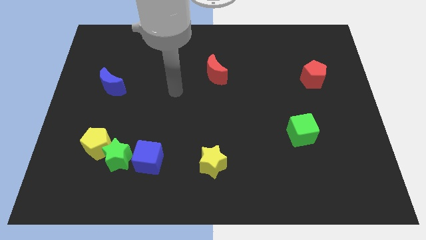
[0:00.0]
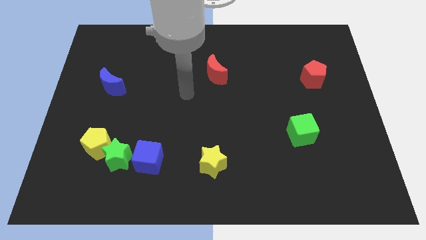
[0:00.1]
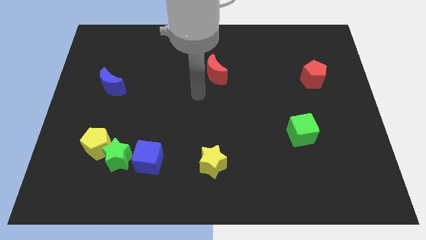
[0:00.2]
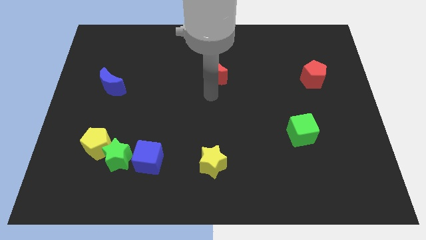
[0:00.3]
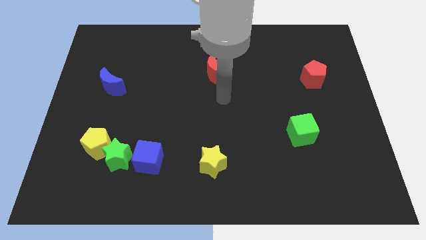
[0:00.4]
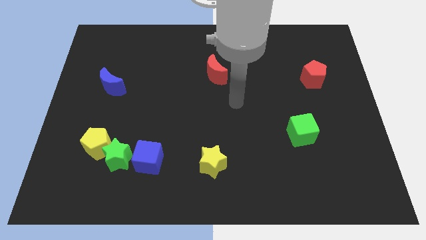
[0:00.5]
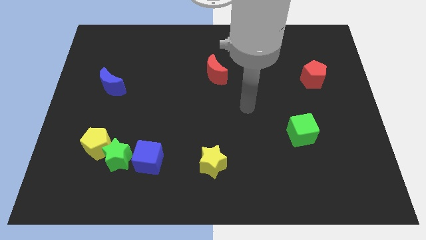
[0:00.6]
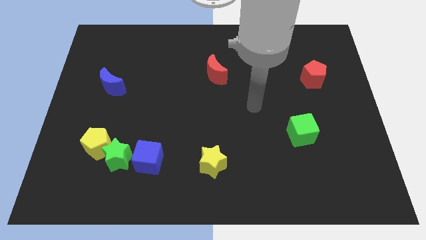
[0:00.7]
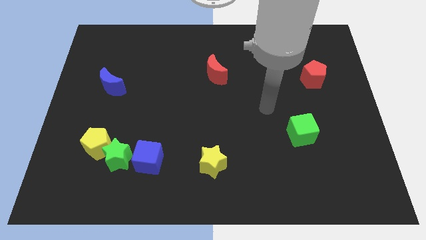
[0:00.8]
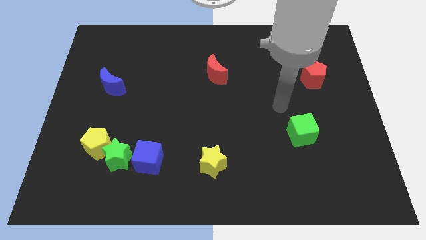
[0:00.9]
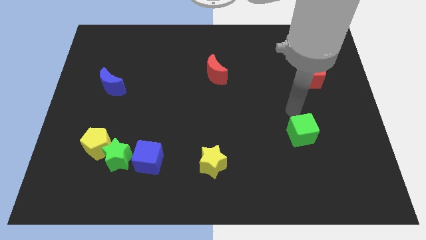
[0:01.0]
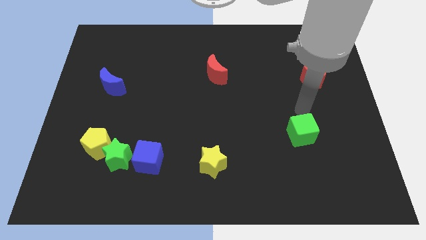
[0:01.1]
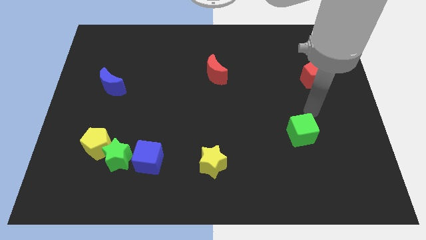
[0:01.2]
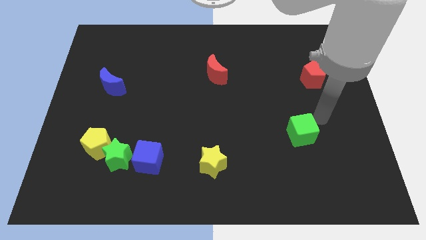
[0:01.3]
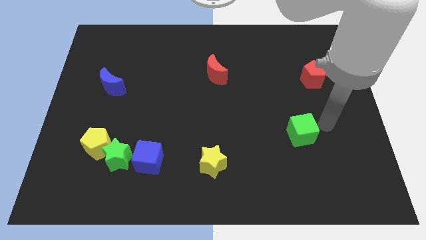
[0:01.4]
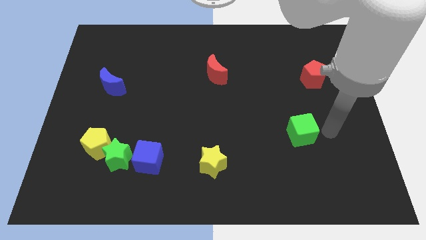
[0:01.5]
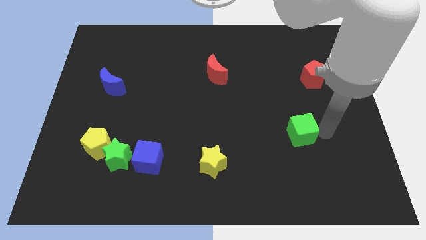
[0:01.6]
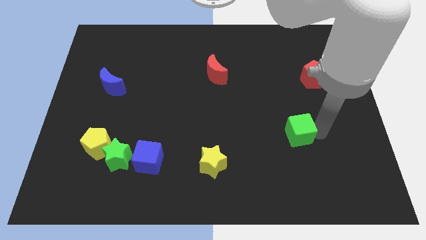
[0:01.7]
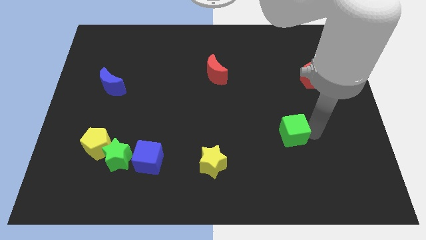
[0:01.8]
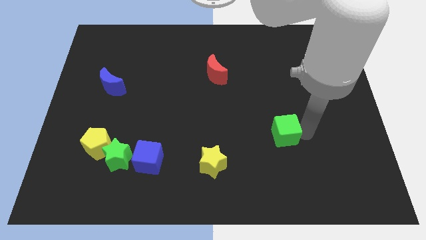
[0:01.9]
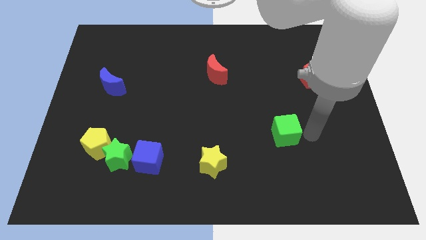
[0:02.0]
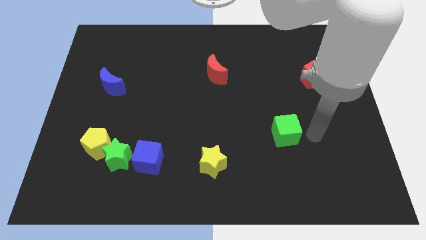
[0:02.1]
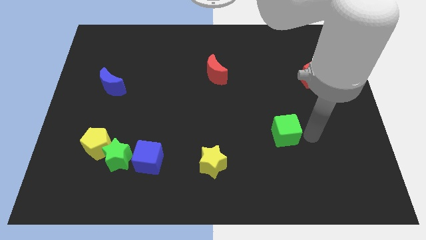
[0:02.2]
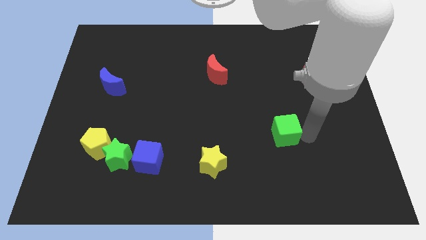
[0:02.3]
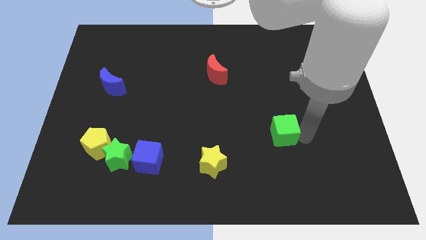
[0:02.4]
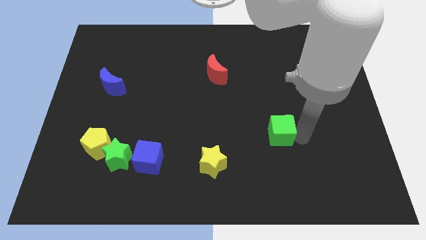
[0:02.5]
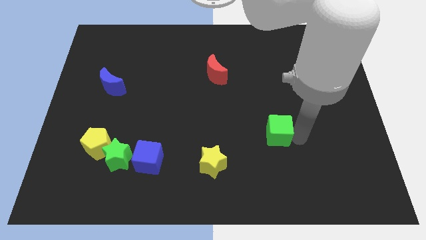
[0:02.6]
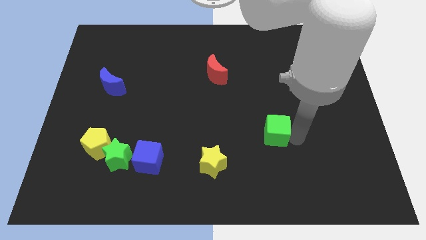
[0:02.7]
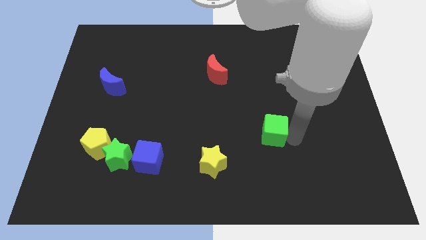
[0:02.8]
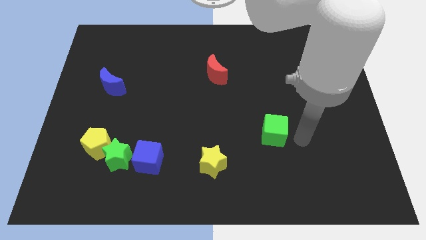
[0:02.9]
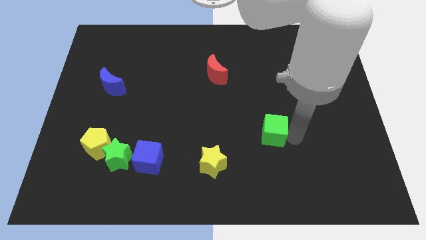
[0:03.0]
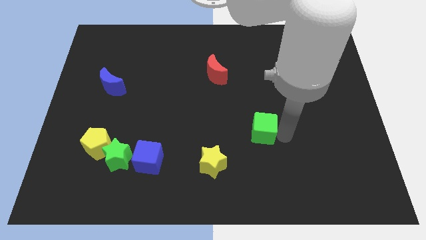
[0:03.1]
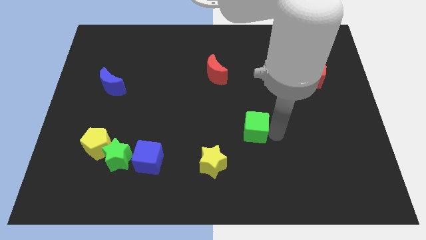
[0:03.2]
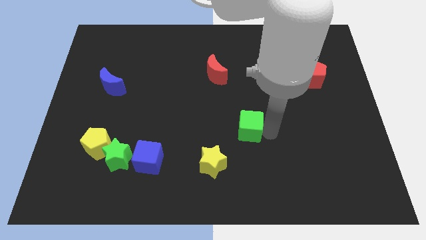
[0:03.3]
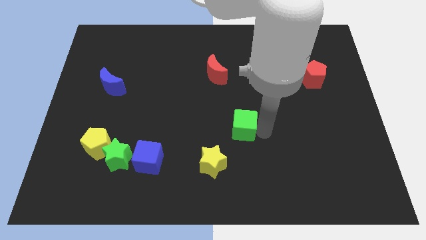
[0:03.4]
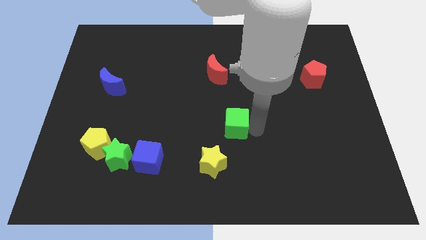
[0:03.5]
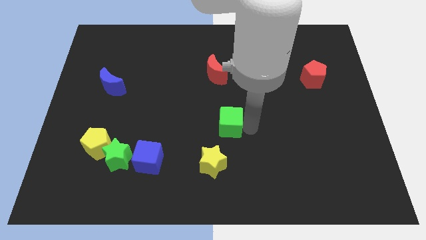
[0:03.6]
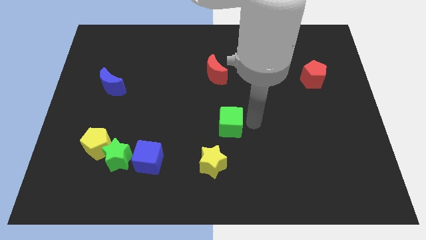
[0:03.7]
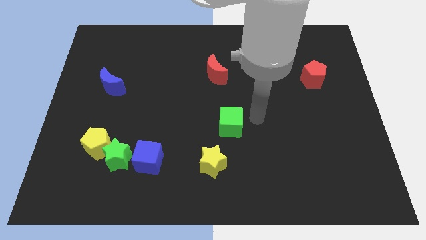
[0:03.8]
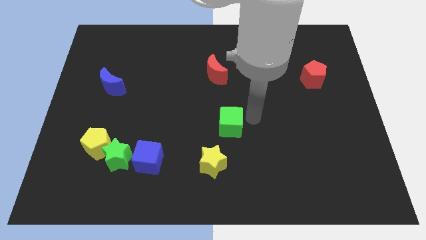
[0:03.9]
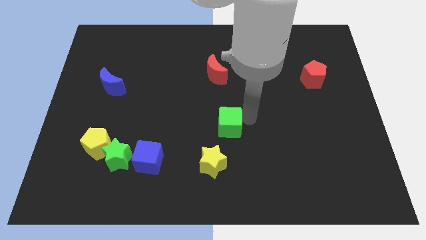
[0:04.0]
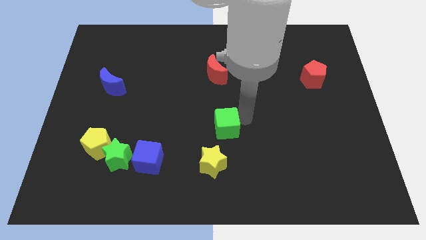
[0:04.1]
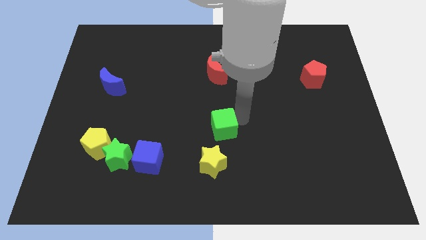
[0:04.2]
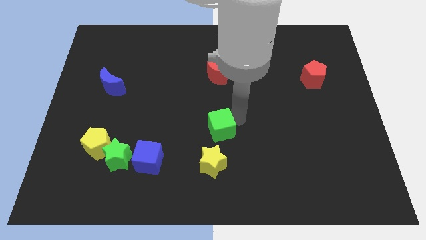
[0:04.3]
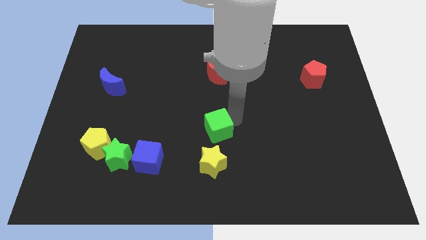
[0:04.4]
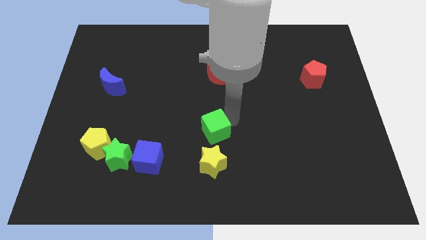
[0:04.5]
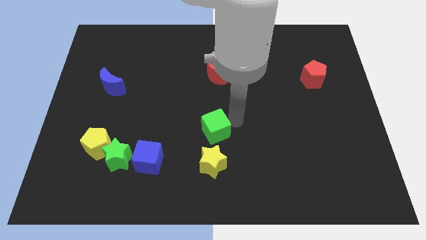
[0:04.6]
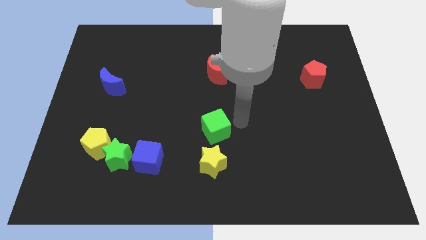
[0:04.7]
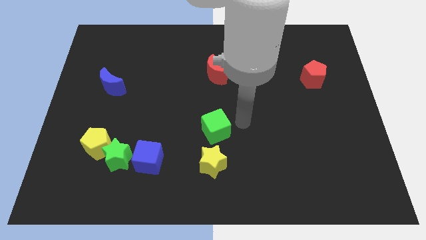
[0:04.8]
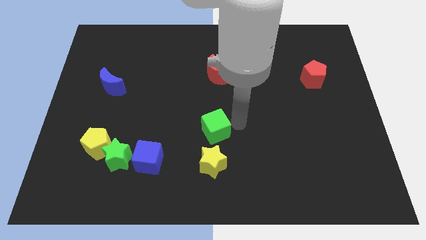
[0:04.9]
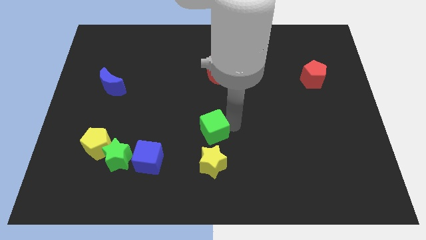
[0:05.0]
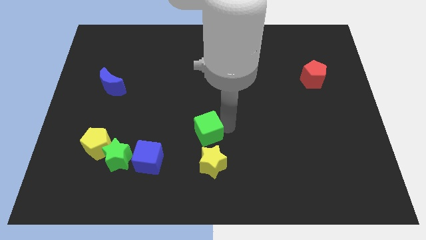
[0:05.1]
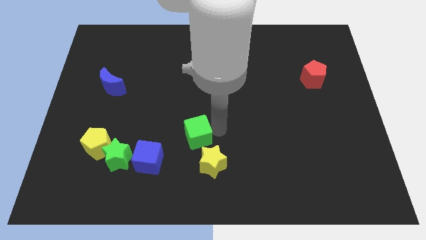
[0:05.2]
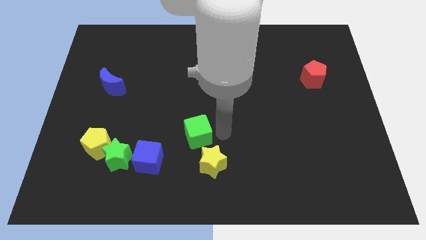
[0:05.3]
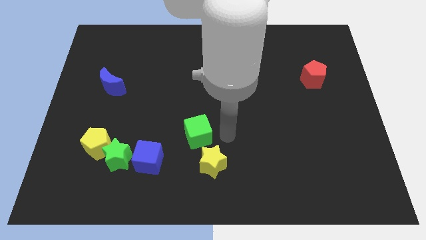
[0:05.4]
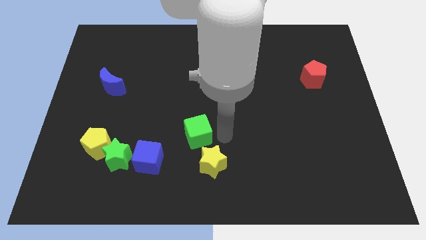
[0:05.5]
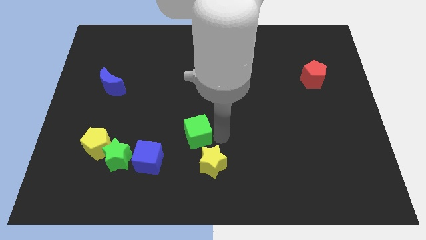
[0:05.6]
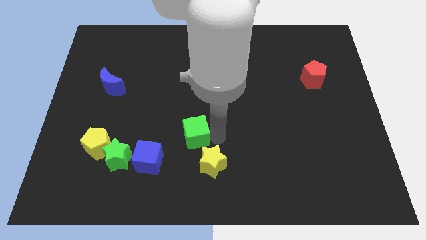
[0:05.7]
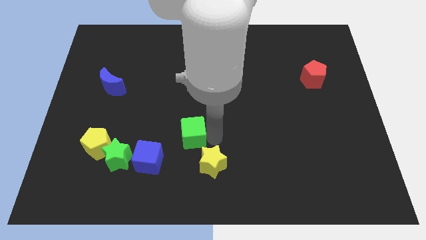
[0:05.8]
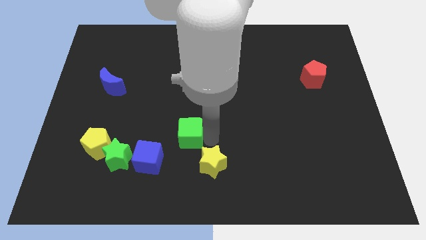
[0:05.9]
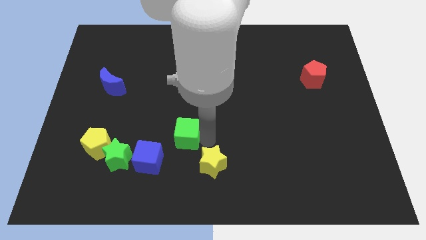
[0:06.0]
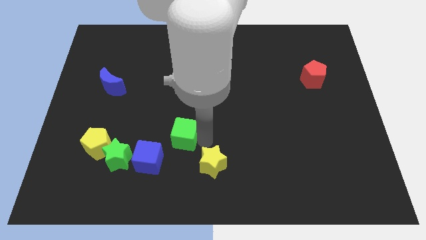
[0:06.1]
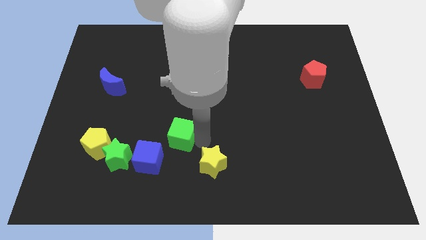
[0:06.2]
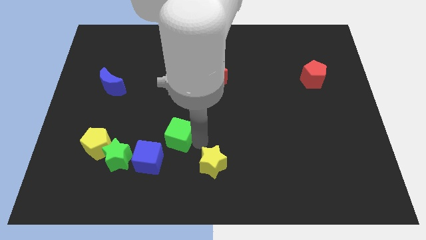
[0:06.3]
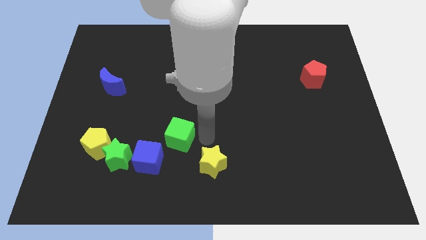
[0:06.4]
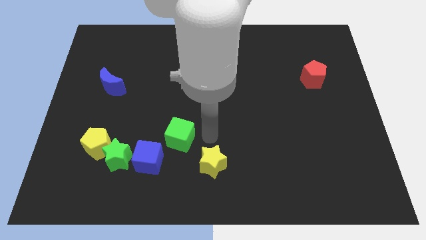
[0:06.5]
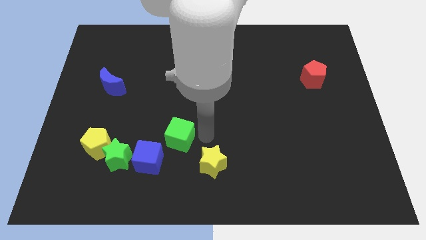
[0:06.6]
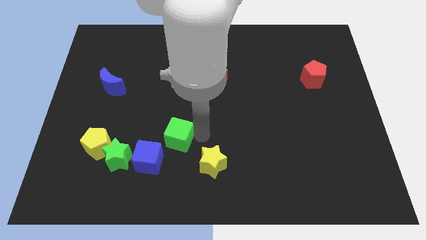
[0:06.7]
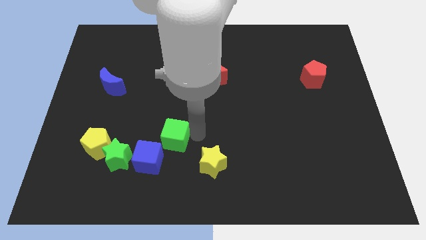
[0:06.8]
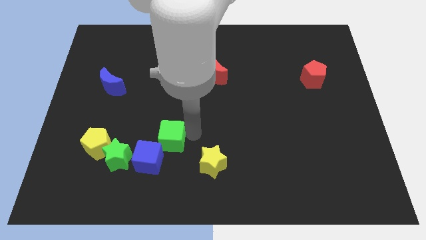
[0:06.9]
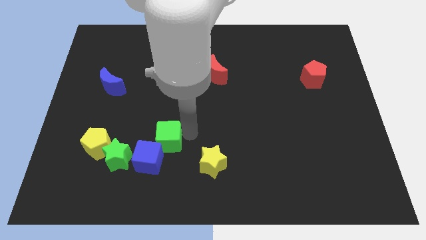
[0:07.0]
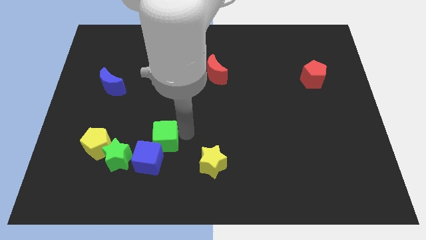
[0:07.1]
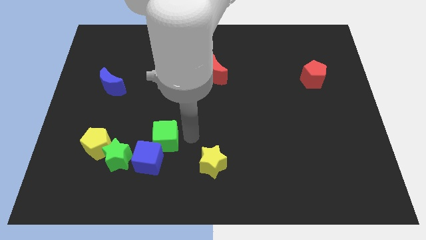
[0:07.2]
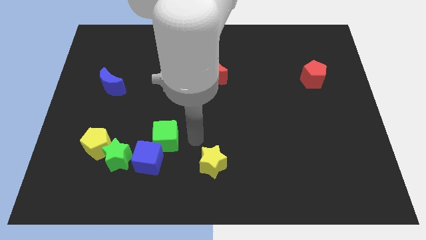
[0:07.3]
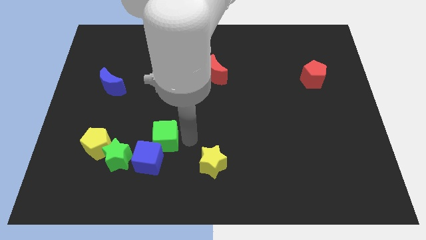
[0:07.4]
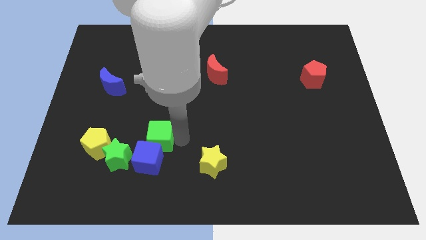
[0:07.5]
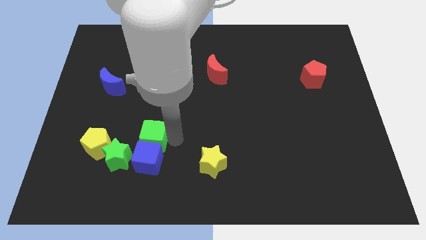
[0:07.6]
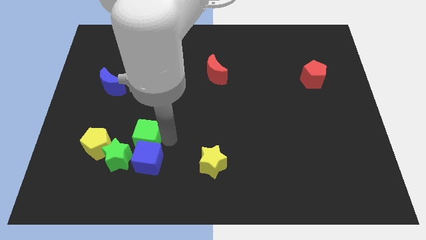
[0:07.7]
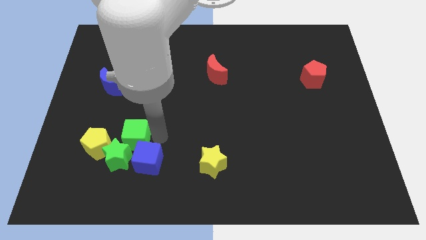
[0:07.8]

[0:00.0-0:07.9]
push the green cube towards the green star
